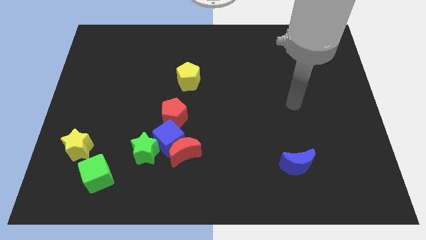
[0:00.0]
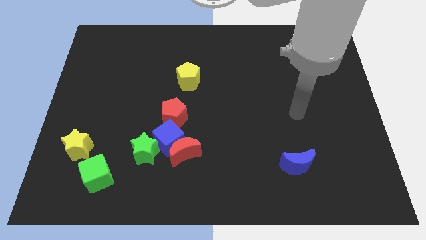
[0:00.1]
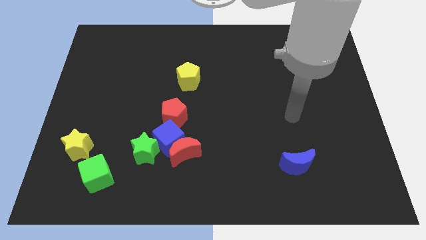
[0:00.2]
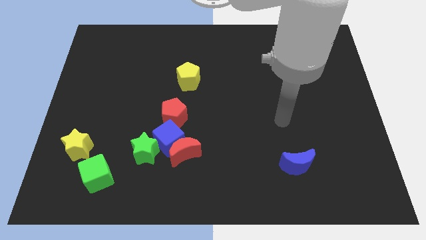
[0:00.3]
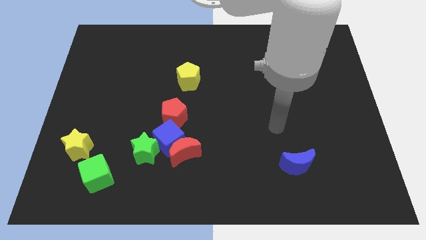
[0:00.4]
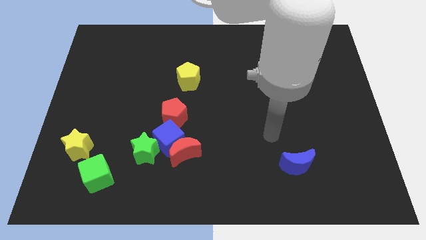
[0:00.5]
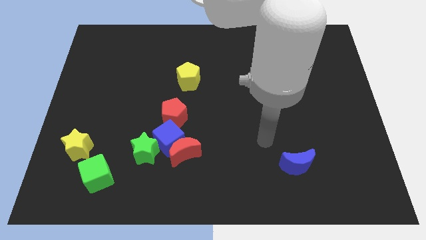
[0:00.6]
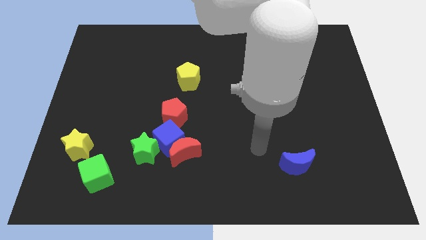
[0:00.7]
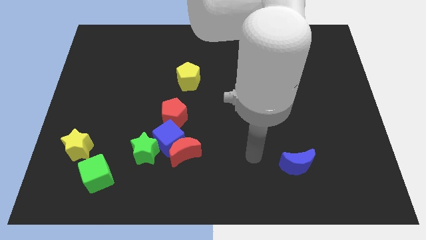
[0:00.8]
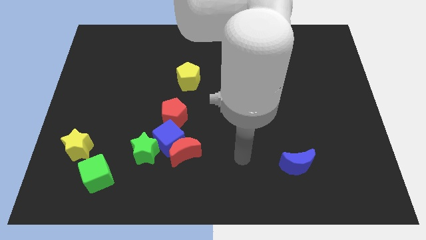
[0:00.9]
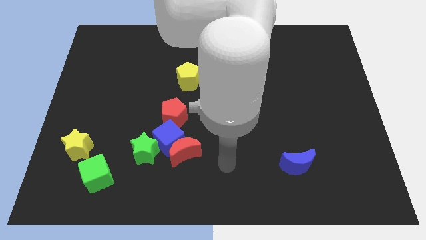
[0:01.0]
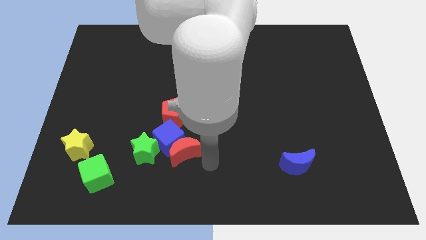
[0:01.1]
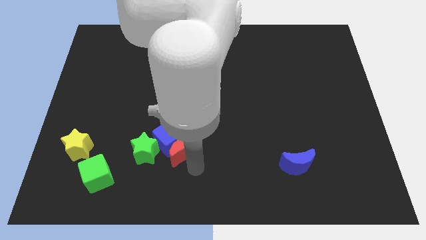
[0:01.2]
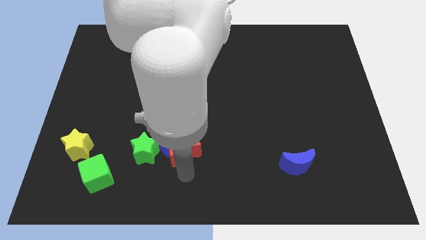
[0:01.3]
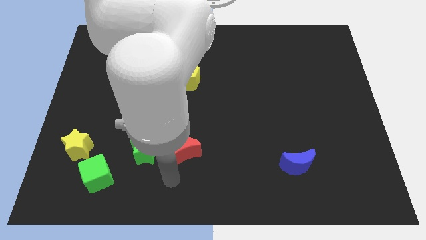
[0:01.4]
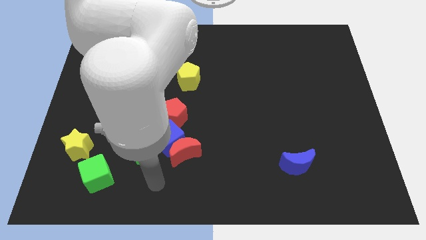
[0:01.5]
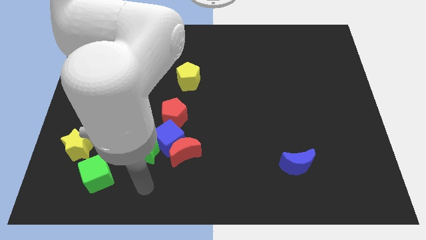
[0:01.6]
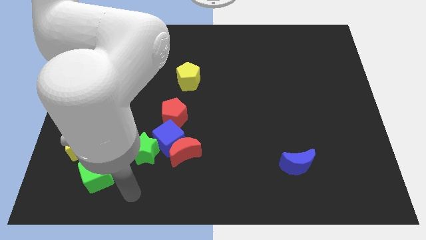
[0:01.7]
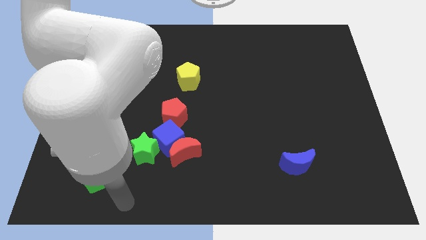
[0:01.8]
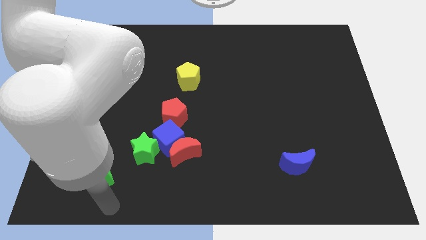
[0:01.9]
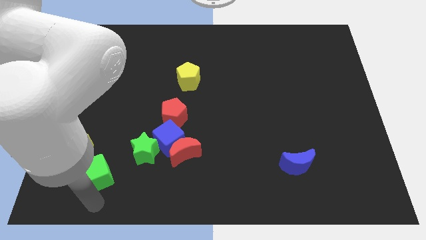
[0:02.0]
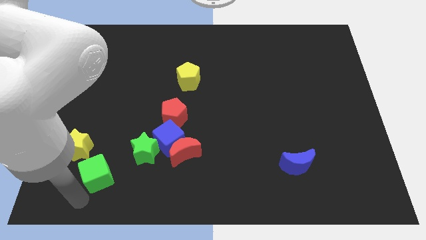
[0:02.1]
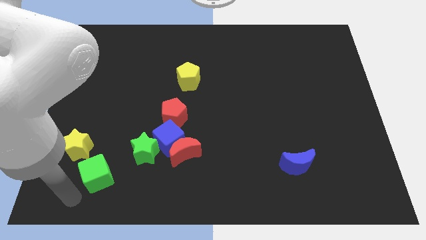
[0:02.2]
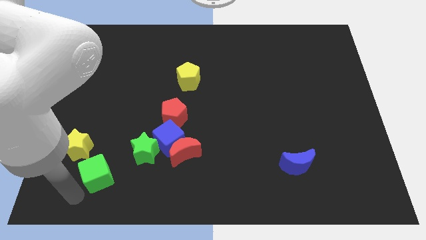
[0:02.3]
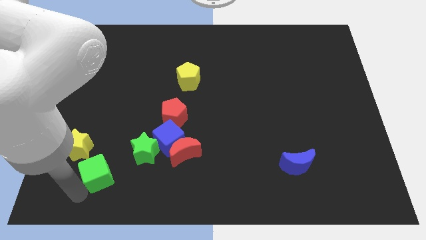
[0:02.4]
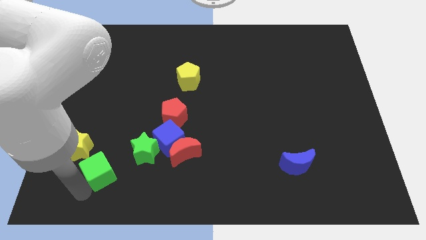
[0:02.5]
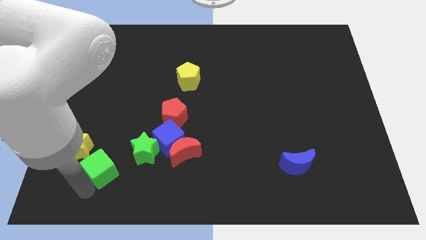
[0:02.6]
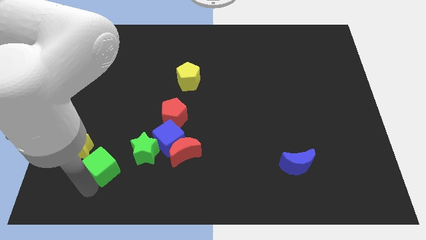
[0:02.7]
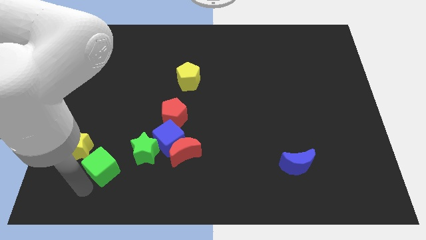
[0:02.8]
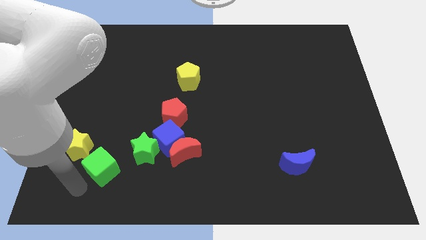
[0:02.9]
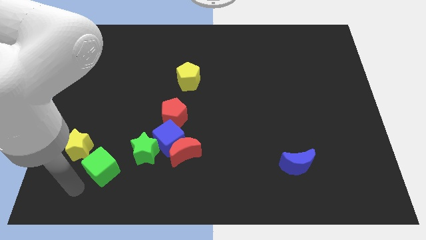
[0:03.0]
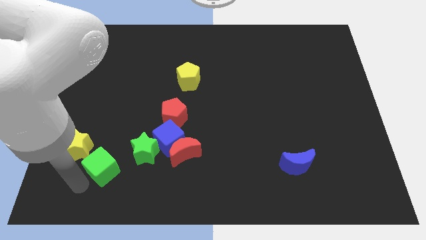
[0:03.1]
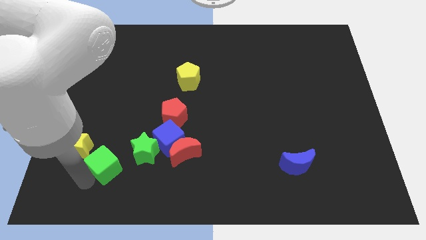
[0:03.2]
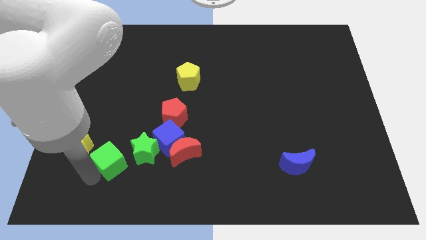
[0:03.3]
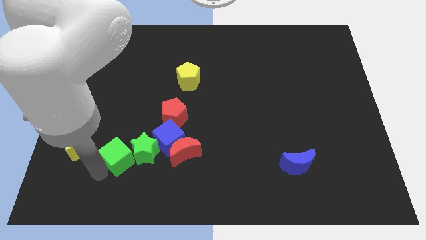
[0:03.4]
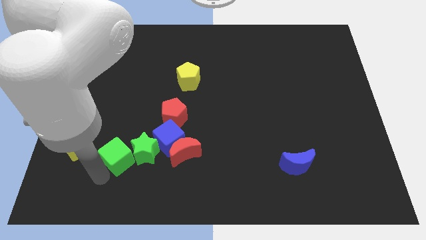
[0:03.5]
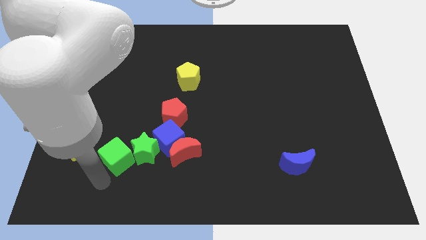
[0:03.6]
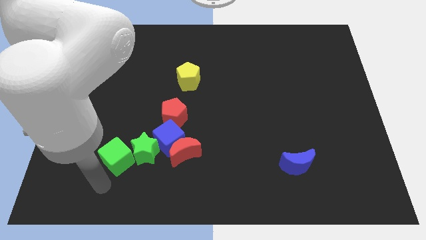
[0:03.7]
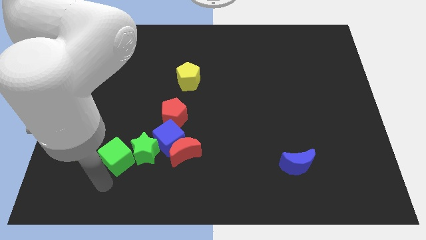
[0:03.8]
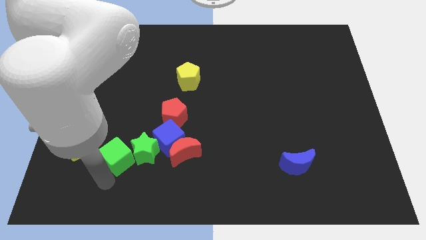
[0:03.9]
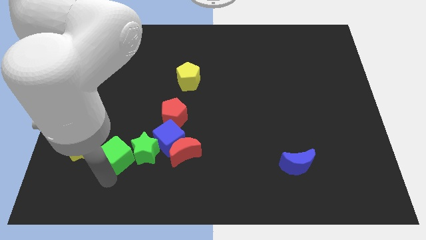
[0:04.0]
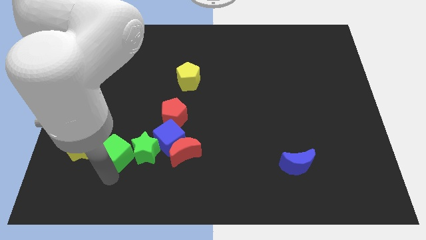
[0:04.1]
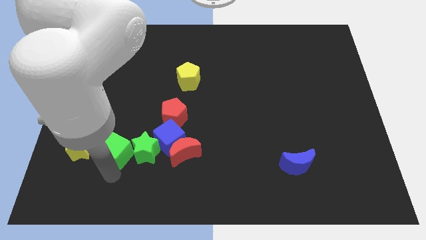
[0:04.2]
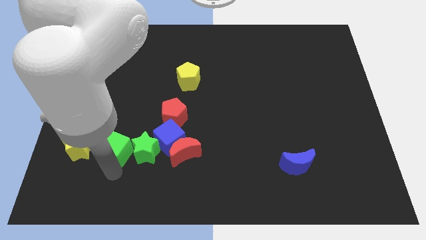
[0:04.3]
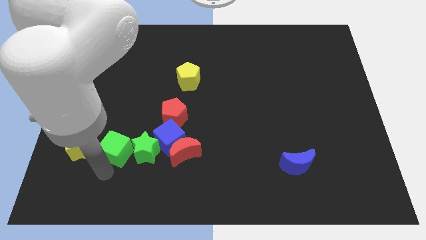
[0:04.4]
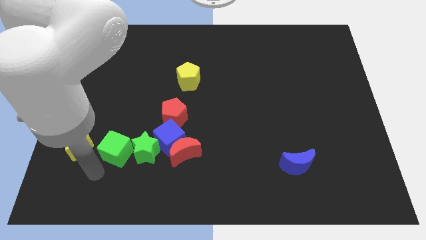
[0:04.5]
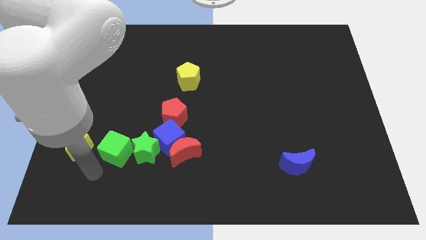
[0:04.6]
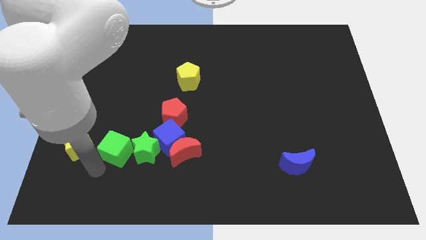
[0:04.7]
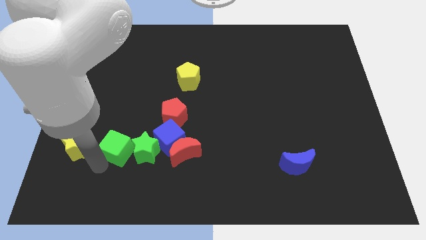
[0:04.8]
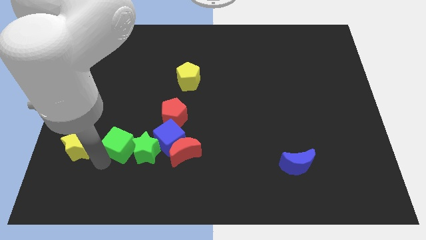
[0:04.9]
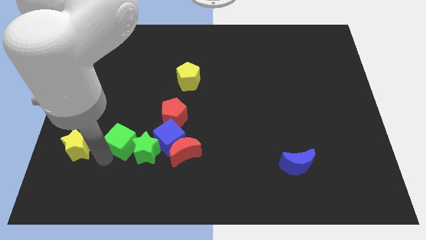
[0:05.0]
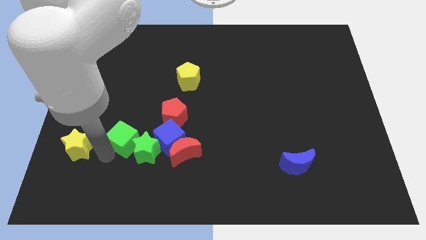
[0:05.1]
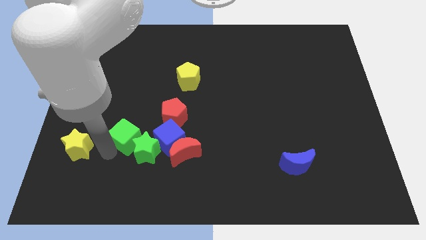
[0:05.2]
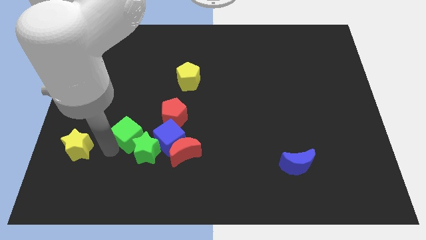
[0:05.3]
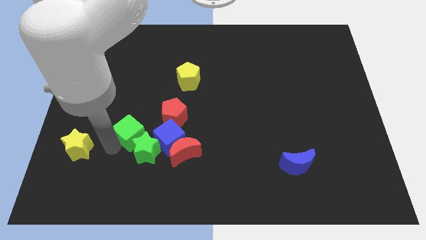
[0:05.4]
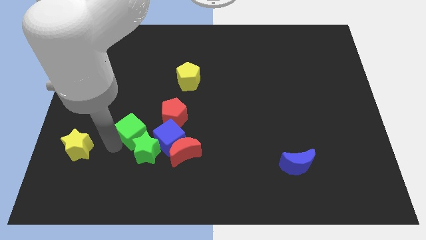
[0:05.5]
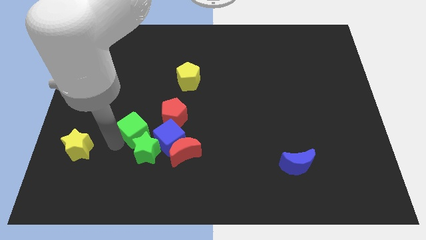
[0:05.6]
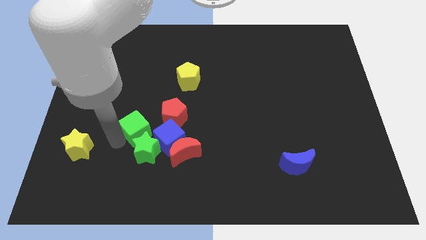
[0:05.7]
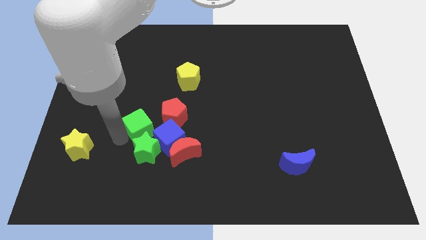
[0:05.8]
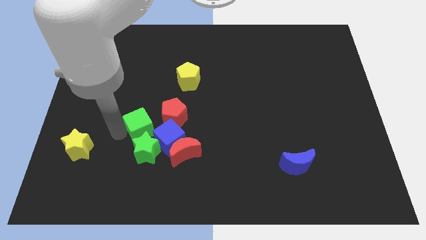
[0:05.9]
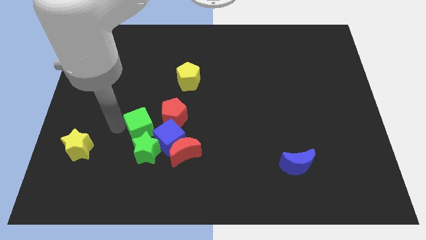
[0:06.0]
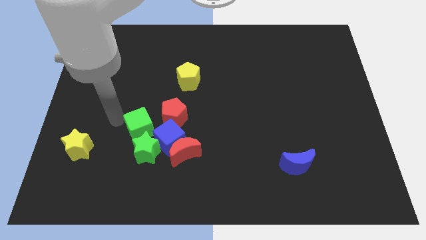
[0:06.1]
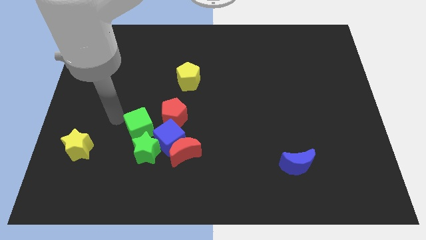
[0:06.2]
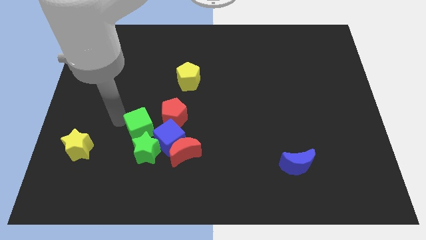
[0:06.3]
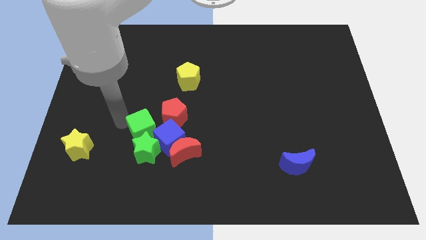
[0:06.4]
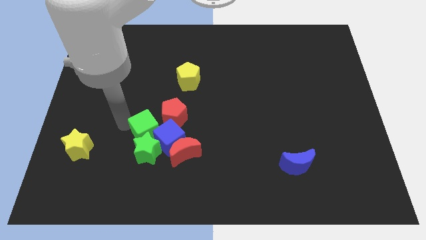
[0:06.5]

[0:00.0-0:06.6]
move the green cube close to the blue cube

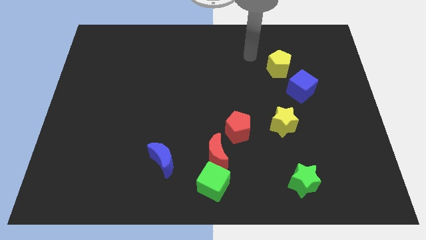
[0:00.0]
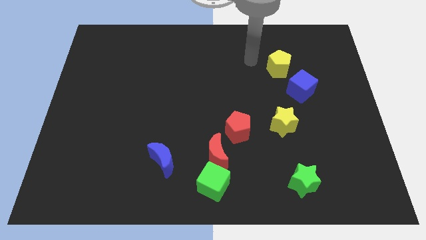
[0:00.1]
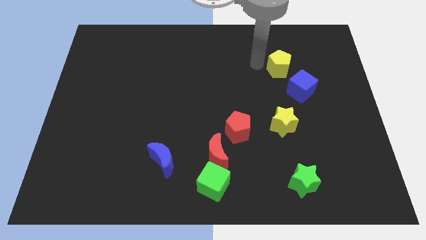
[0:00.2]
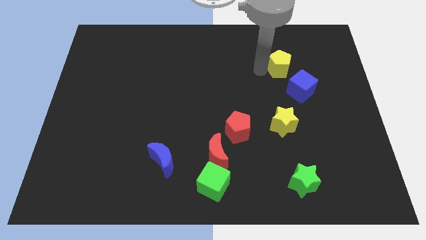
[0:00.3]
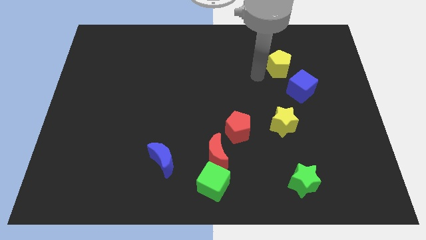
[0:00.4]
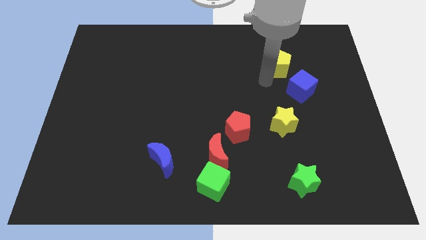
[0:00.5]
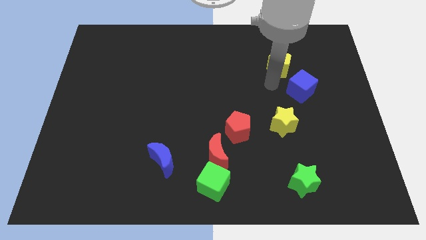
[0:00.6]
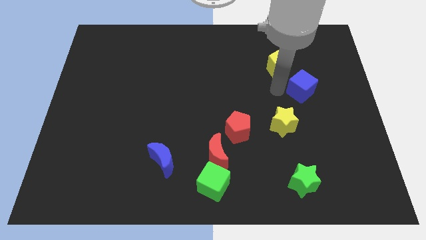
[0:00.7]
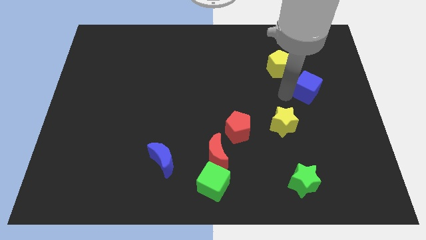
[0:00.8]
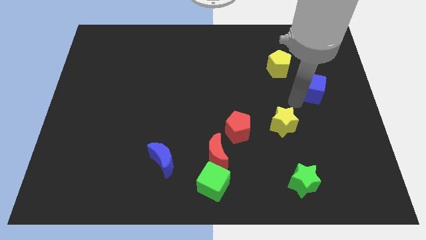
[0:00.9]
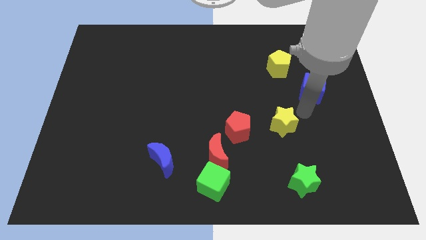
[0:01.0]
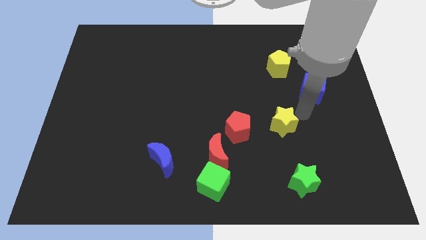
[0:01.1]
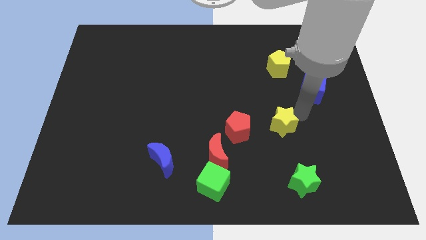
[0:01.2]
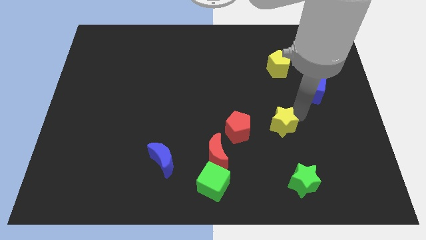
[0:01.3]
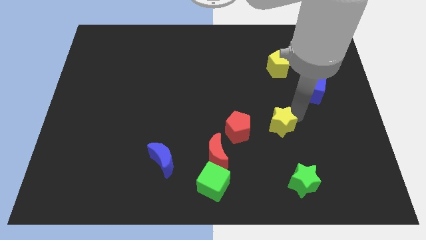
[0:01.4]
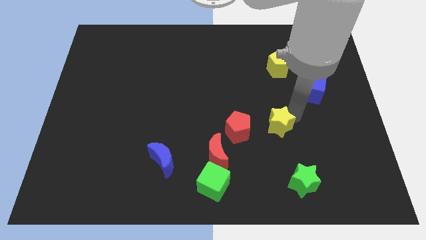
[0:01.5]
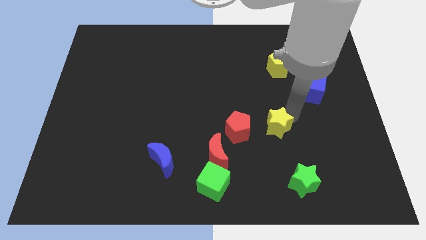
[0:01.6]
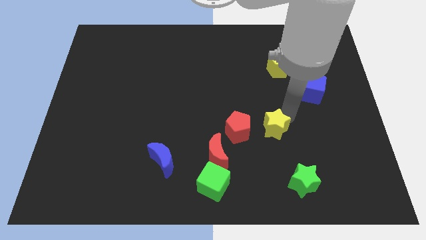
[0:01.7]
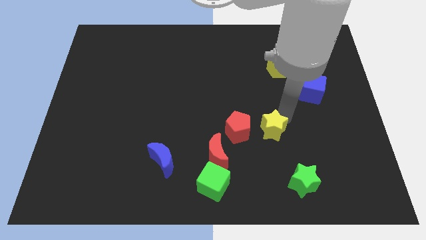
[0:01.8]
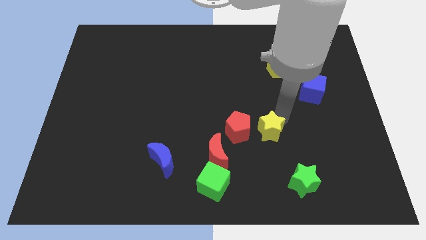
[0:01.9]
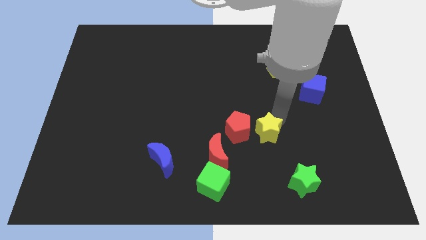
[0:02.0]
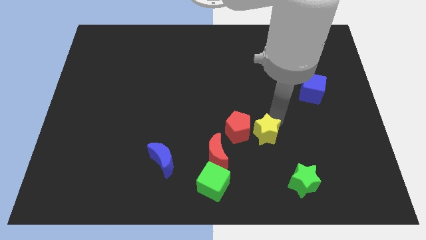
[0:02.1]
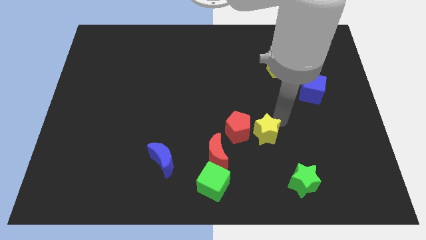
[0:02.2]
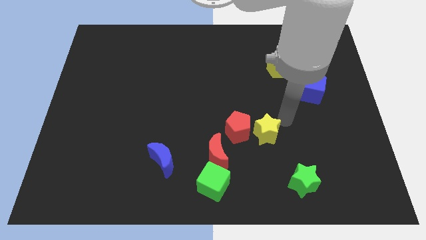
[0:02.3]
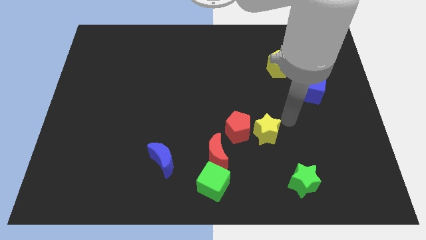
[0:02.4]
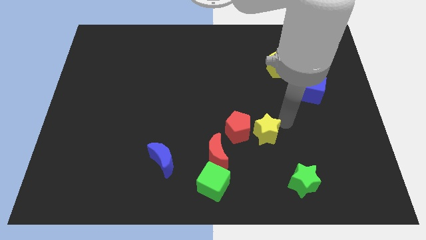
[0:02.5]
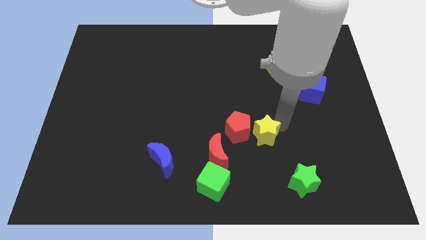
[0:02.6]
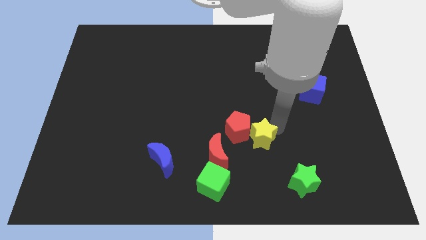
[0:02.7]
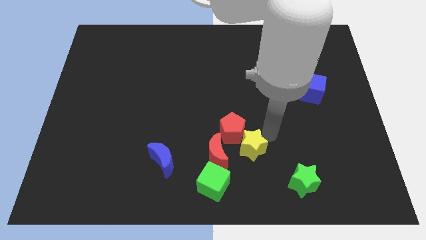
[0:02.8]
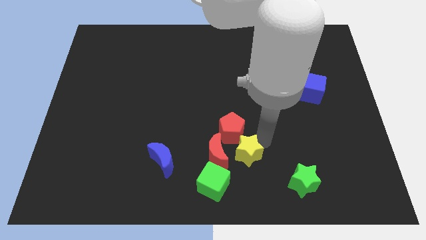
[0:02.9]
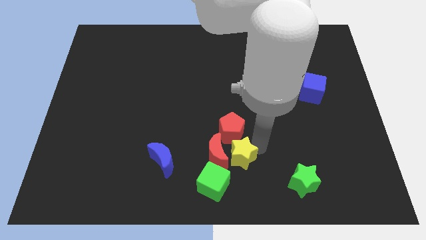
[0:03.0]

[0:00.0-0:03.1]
move the yellow star towards the red moon
